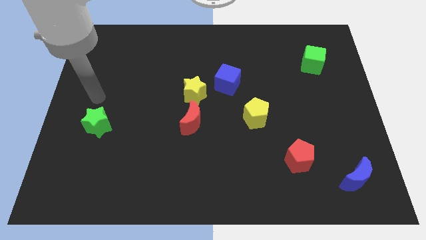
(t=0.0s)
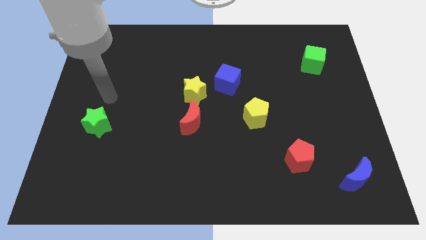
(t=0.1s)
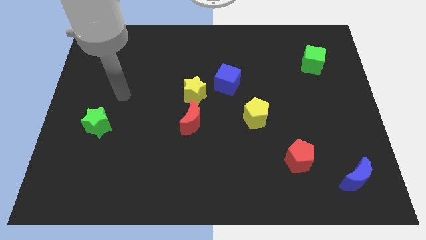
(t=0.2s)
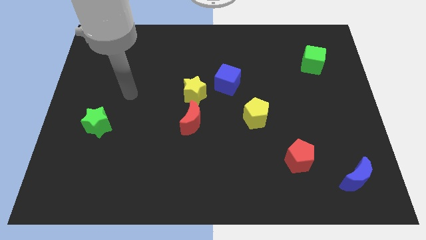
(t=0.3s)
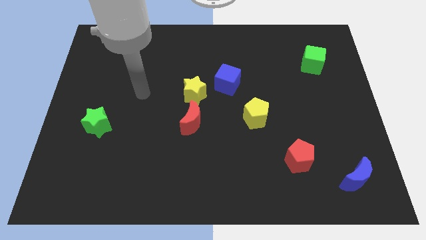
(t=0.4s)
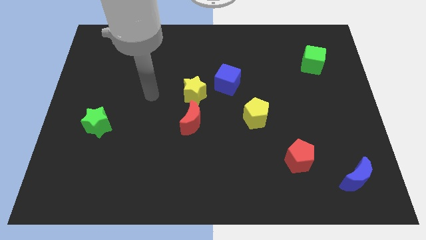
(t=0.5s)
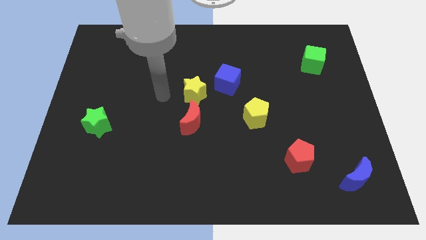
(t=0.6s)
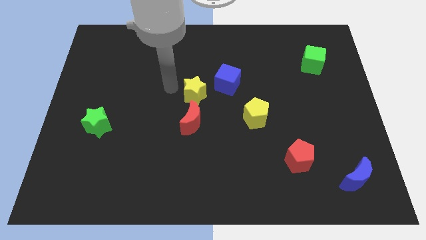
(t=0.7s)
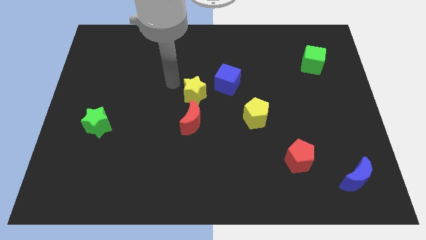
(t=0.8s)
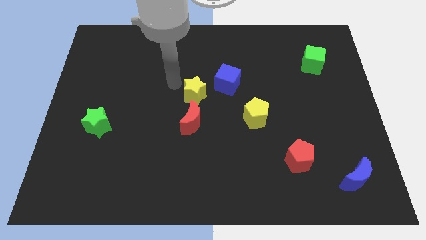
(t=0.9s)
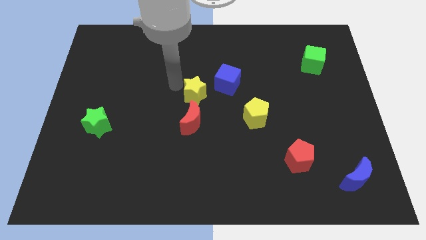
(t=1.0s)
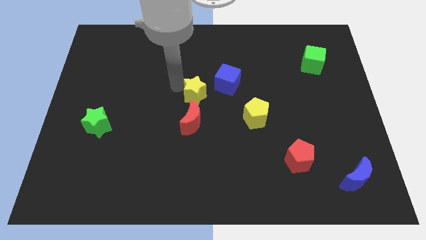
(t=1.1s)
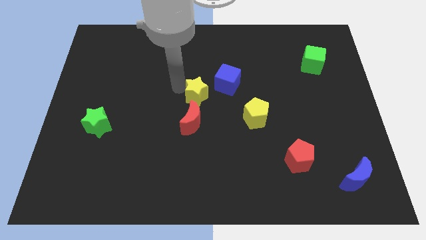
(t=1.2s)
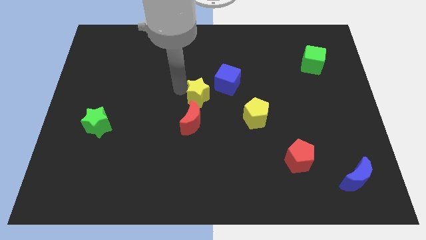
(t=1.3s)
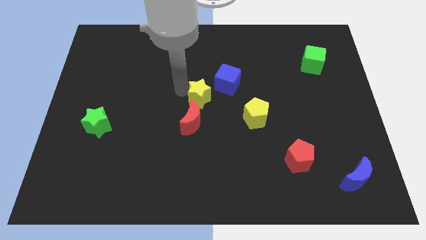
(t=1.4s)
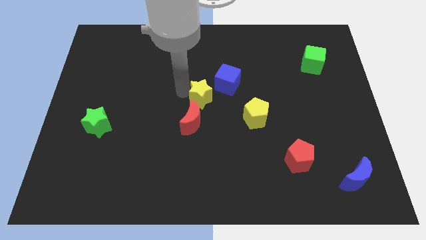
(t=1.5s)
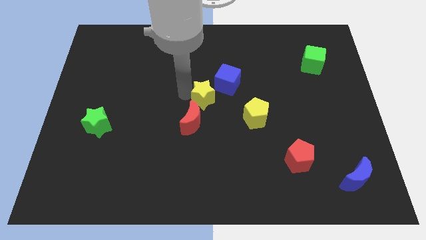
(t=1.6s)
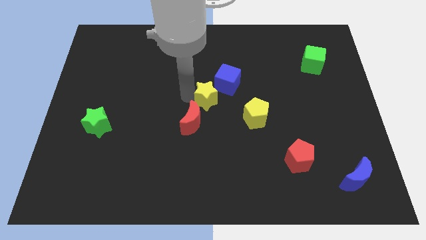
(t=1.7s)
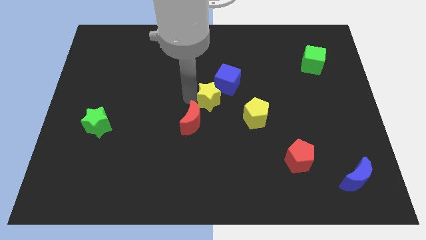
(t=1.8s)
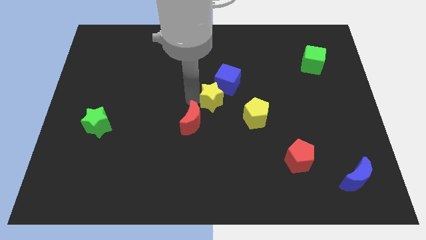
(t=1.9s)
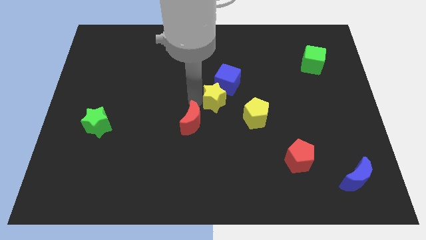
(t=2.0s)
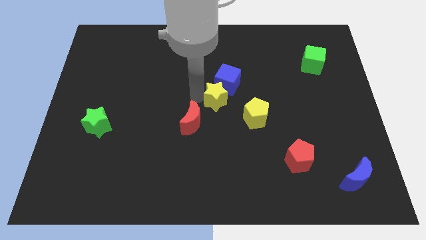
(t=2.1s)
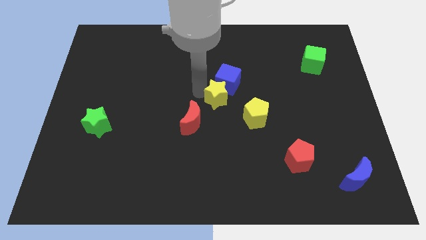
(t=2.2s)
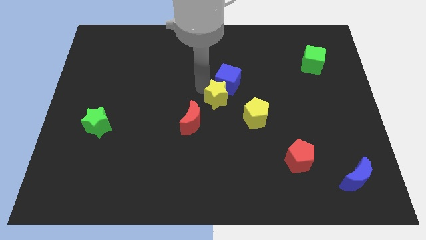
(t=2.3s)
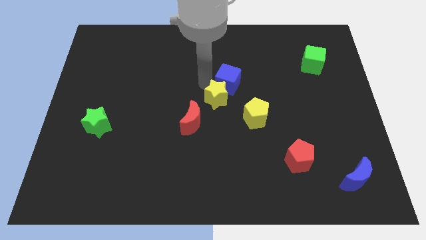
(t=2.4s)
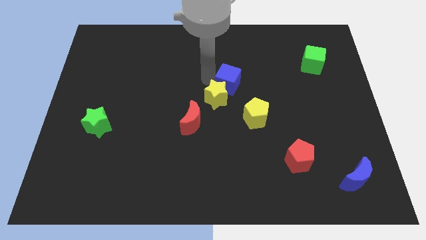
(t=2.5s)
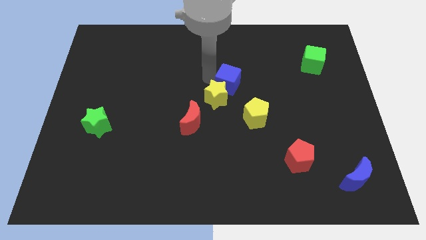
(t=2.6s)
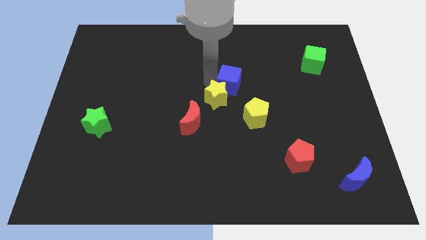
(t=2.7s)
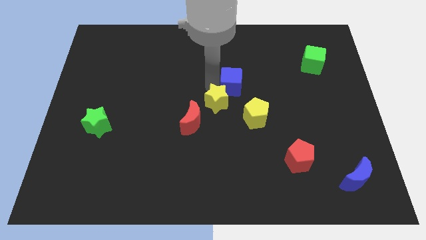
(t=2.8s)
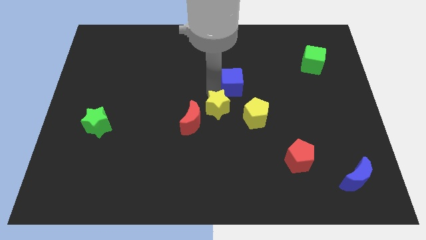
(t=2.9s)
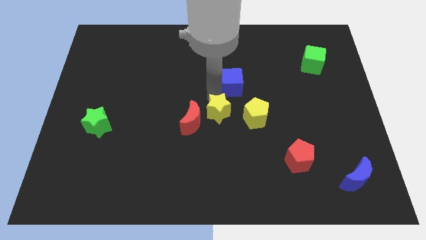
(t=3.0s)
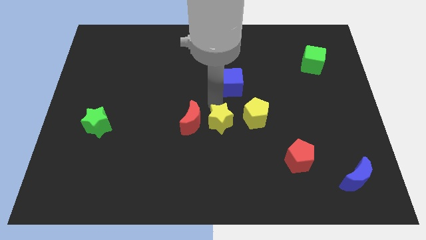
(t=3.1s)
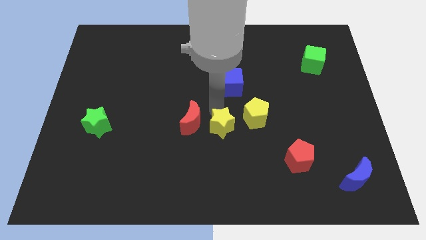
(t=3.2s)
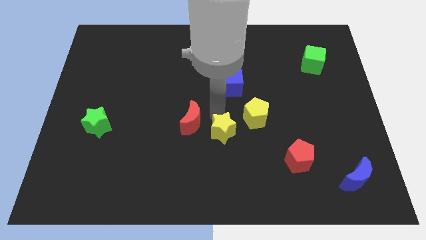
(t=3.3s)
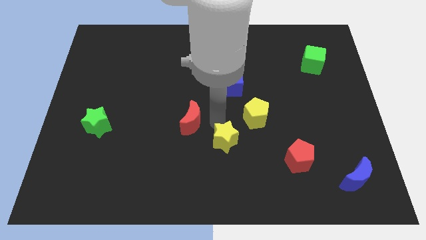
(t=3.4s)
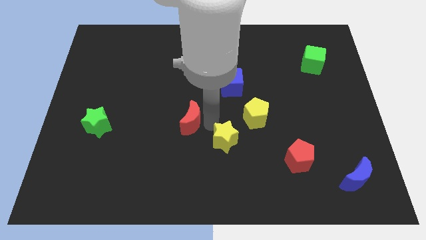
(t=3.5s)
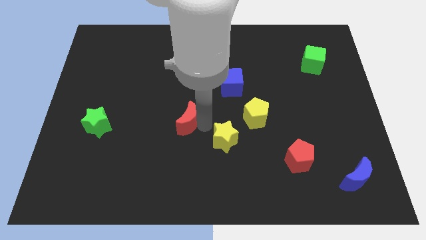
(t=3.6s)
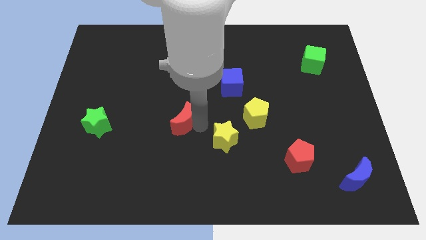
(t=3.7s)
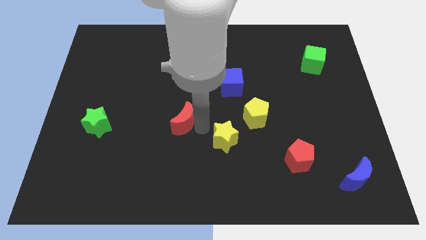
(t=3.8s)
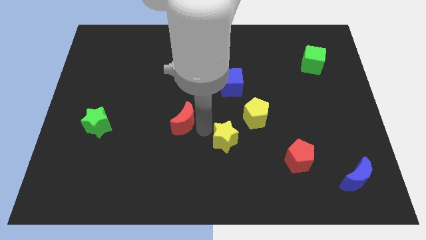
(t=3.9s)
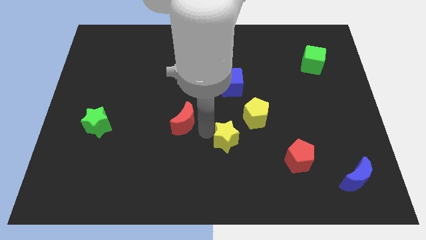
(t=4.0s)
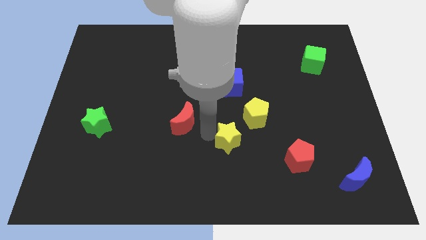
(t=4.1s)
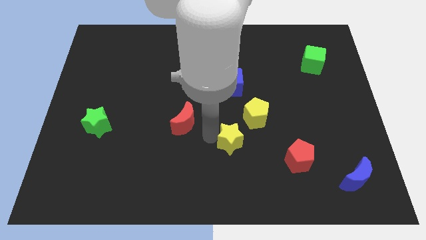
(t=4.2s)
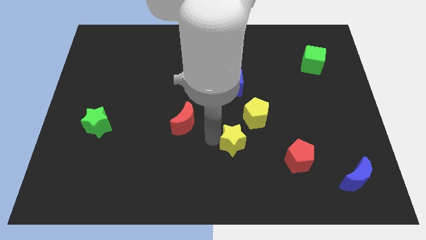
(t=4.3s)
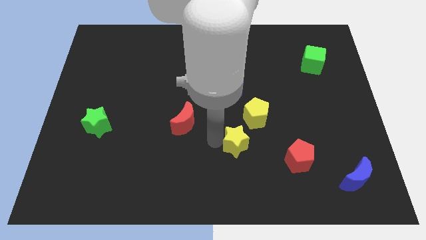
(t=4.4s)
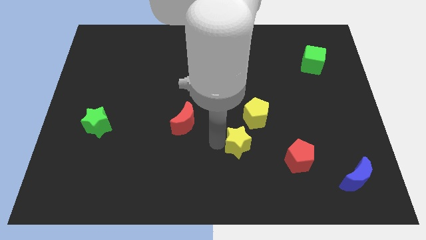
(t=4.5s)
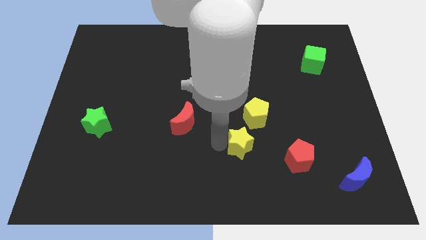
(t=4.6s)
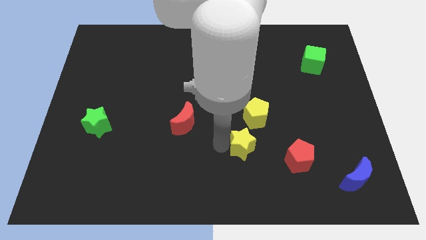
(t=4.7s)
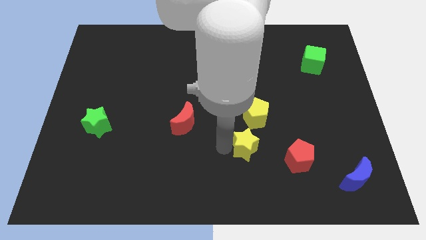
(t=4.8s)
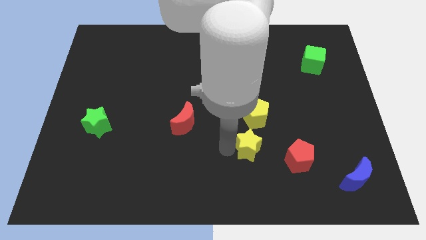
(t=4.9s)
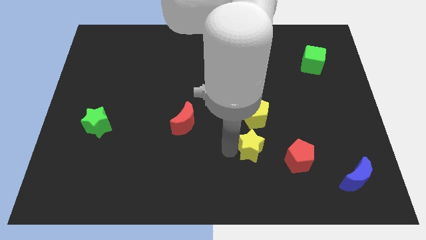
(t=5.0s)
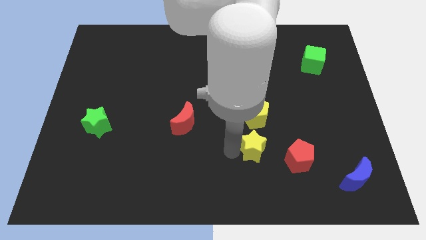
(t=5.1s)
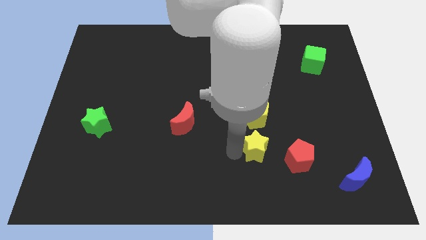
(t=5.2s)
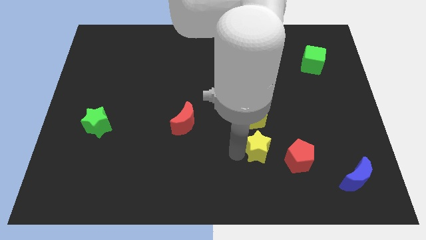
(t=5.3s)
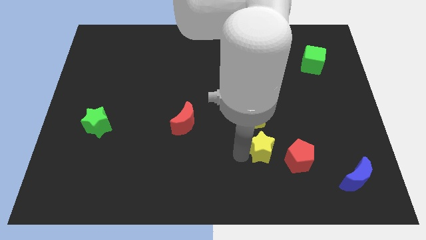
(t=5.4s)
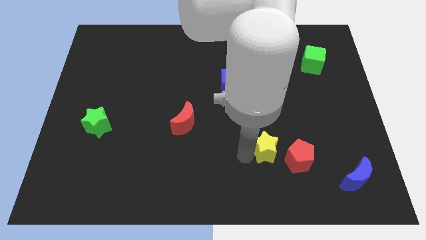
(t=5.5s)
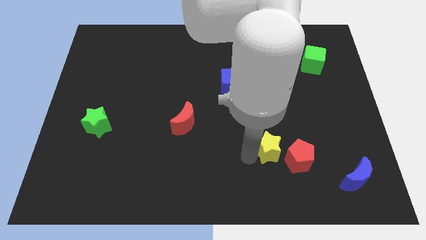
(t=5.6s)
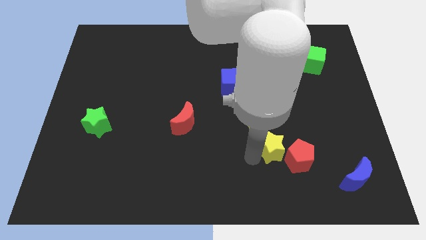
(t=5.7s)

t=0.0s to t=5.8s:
push the yellow star close to the red pentagon

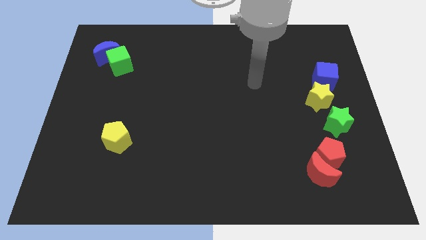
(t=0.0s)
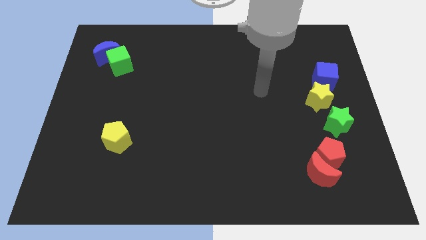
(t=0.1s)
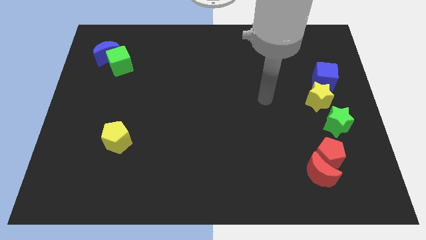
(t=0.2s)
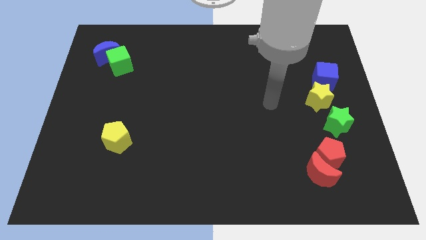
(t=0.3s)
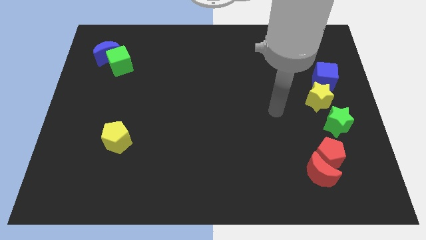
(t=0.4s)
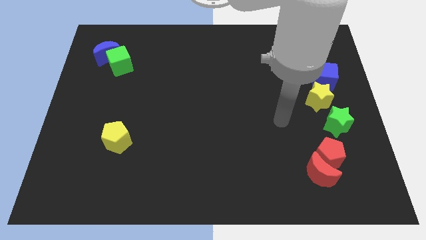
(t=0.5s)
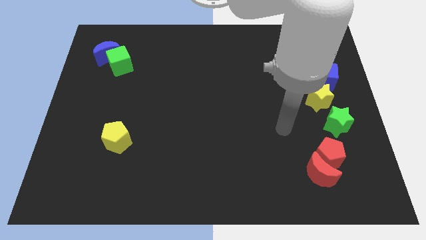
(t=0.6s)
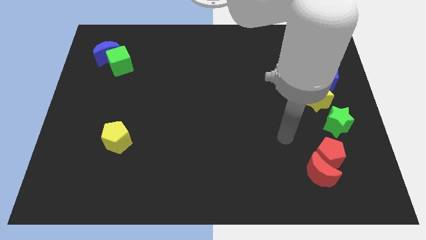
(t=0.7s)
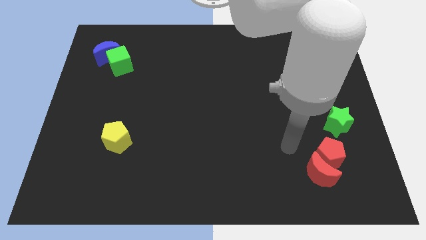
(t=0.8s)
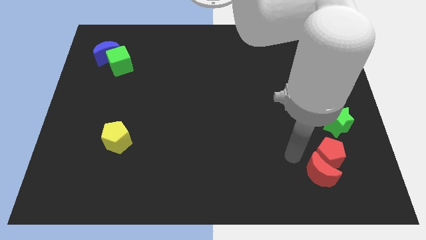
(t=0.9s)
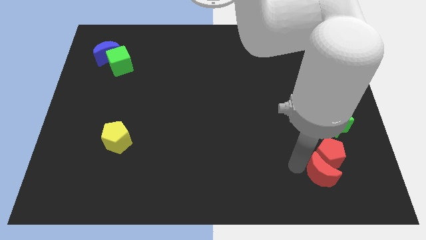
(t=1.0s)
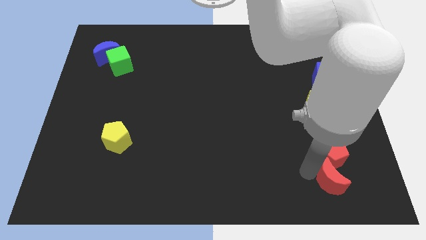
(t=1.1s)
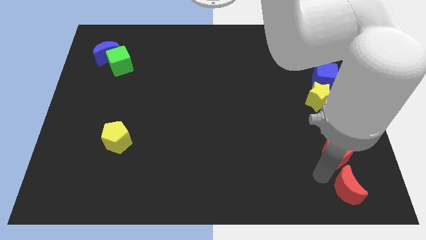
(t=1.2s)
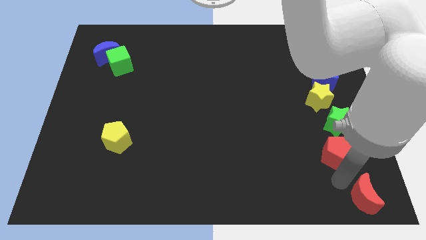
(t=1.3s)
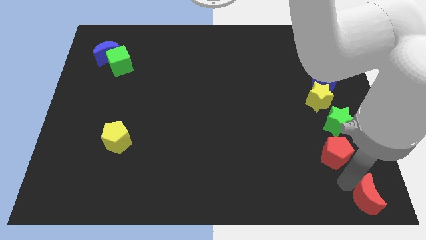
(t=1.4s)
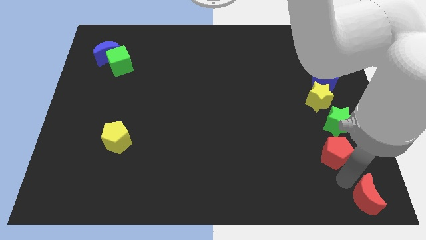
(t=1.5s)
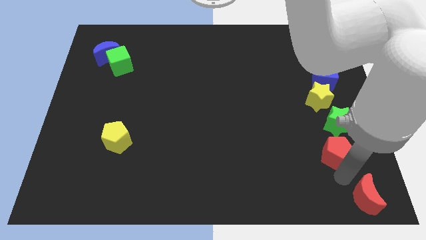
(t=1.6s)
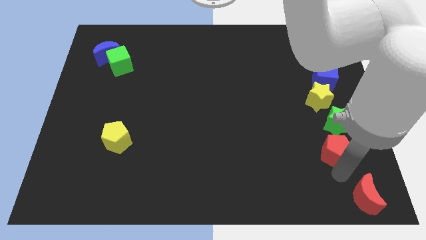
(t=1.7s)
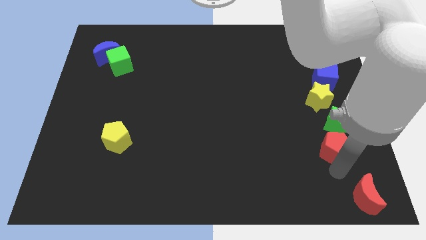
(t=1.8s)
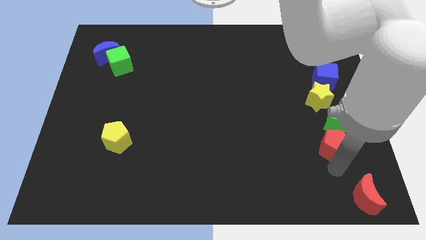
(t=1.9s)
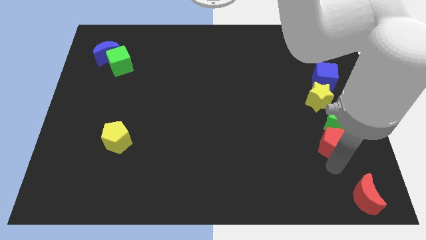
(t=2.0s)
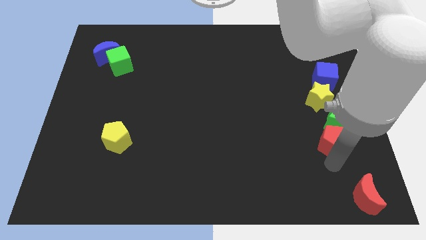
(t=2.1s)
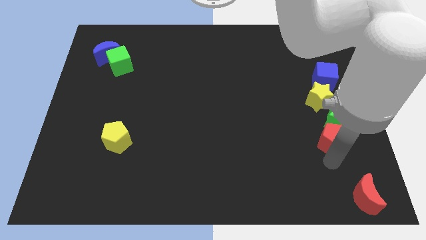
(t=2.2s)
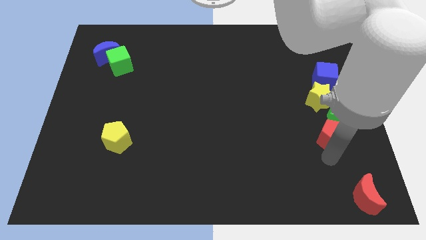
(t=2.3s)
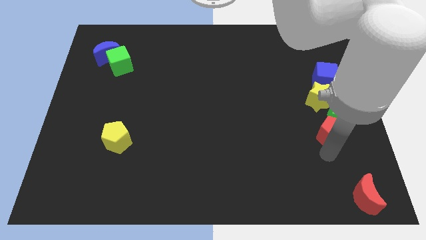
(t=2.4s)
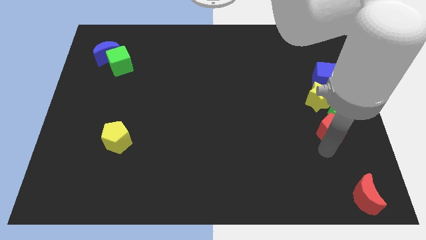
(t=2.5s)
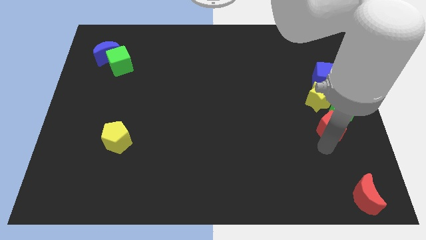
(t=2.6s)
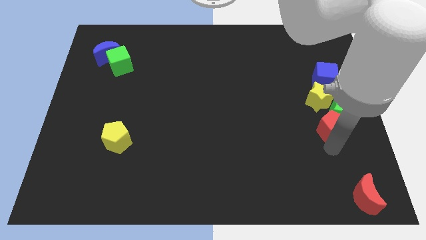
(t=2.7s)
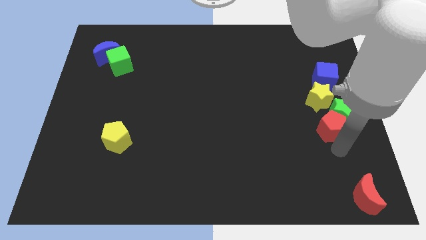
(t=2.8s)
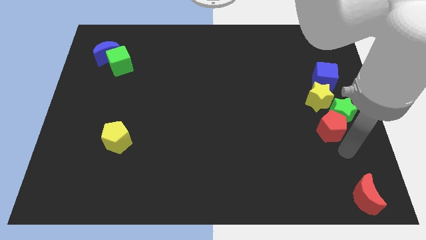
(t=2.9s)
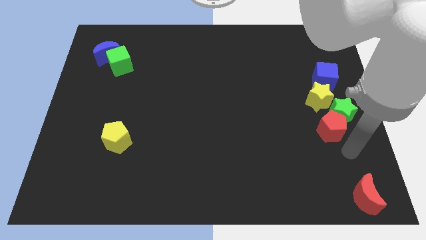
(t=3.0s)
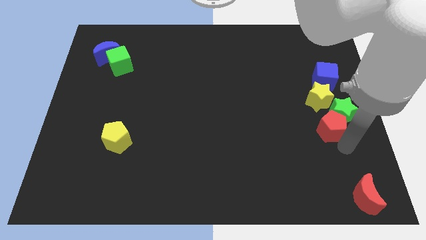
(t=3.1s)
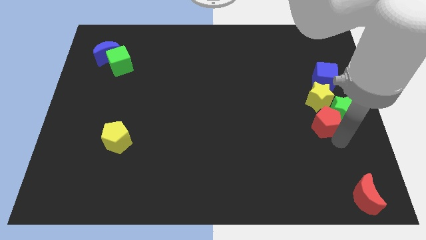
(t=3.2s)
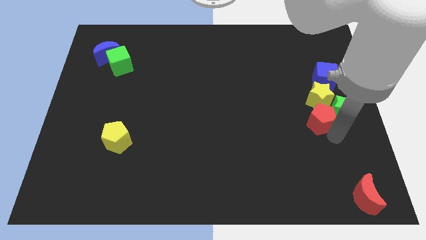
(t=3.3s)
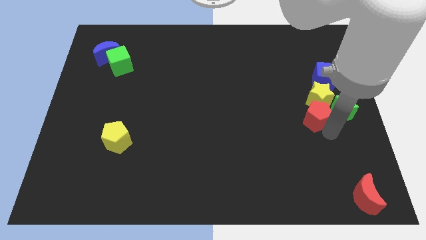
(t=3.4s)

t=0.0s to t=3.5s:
slide the red pentagon towards the yellow star
